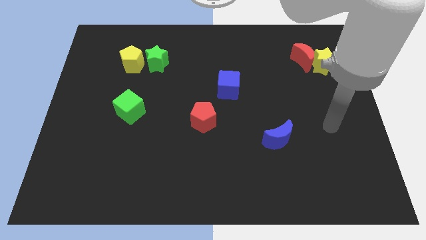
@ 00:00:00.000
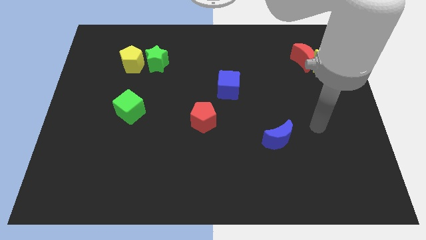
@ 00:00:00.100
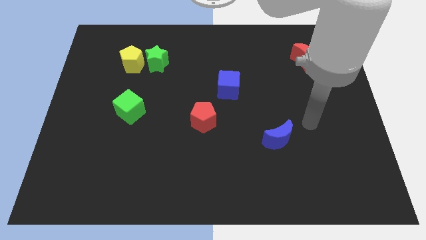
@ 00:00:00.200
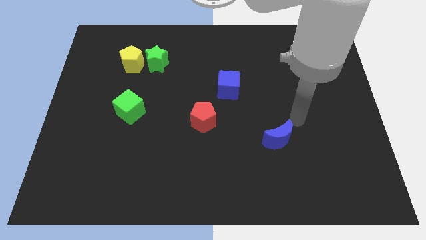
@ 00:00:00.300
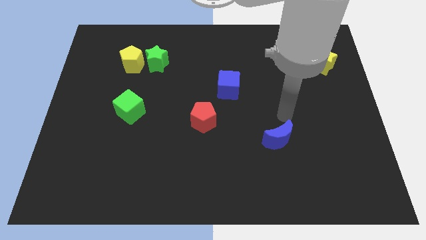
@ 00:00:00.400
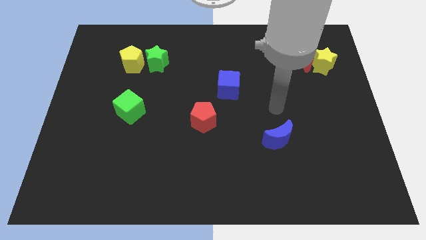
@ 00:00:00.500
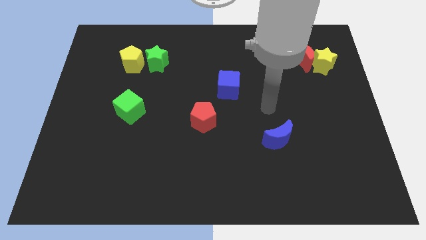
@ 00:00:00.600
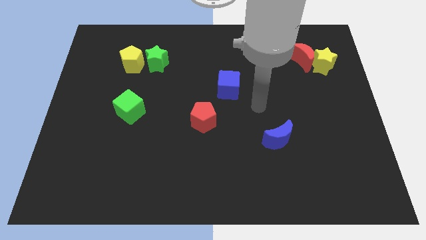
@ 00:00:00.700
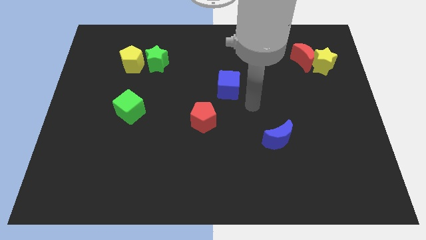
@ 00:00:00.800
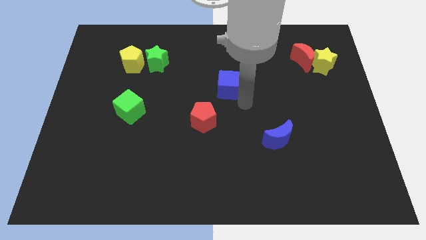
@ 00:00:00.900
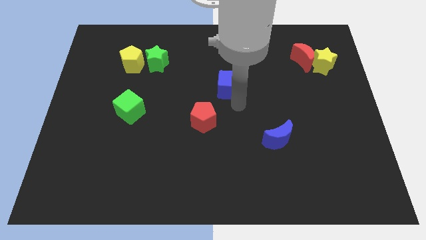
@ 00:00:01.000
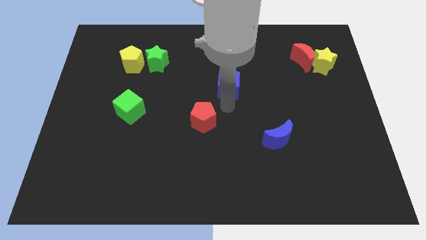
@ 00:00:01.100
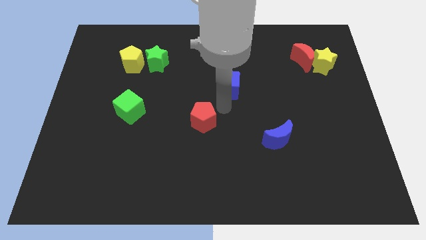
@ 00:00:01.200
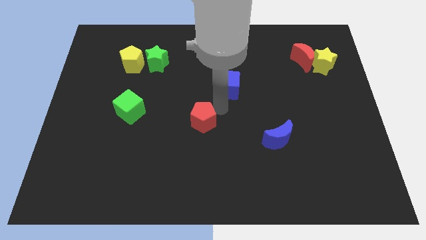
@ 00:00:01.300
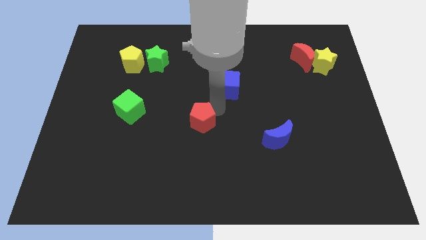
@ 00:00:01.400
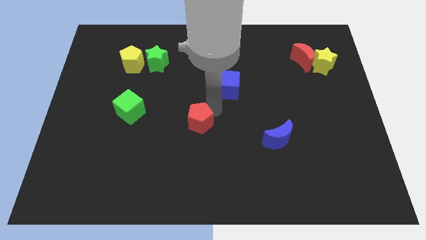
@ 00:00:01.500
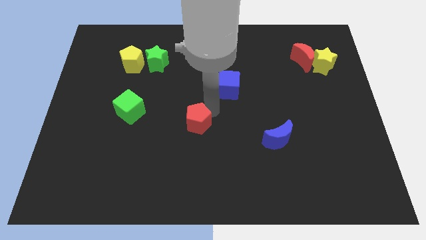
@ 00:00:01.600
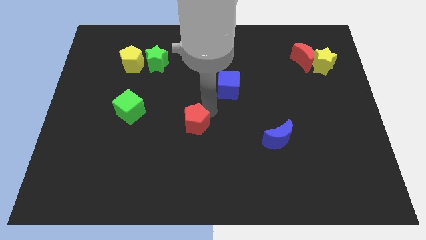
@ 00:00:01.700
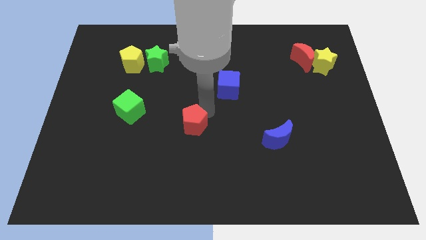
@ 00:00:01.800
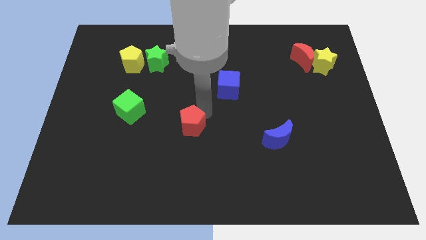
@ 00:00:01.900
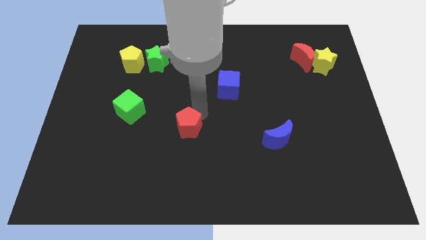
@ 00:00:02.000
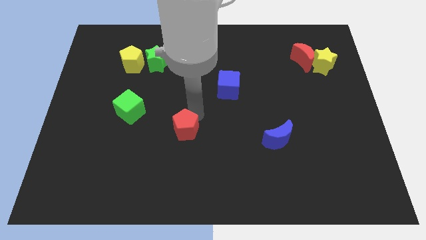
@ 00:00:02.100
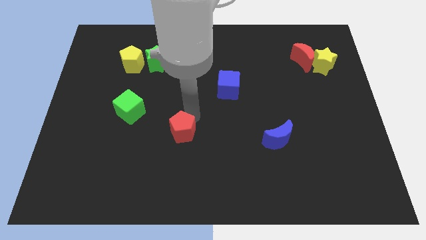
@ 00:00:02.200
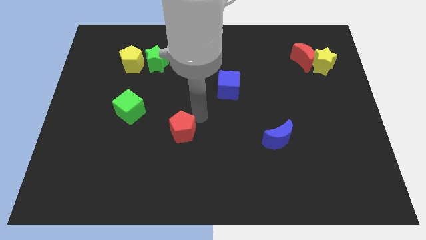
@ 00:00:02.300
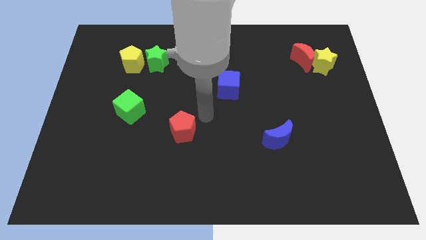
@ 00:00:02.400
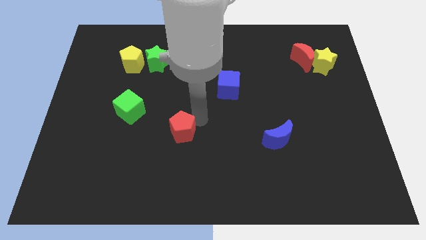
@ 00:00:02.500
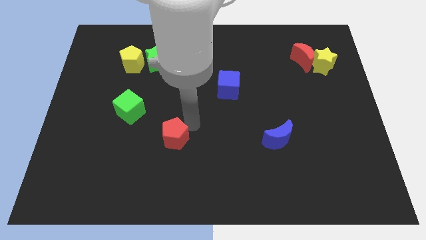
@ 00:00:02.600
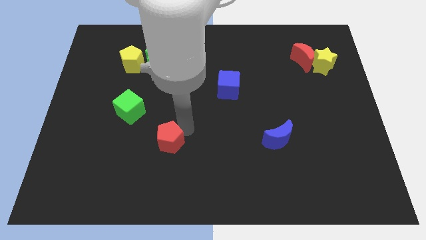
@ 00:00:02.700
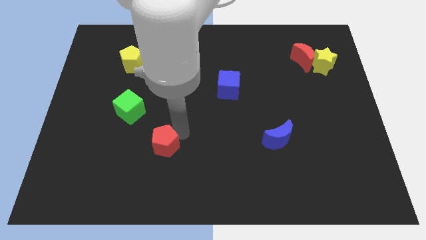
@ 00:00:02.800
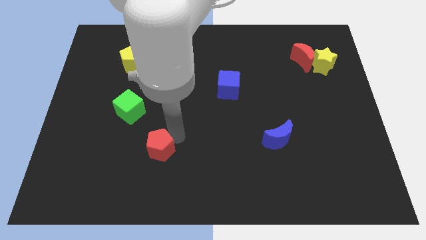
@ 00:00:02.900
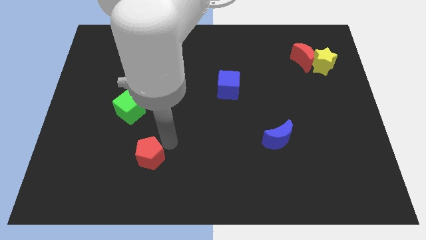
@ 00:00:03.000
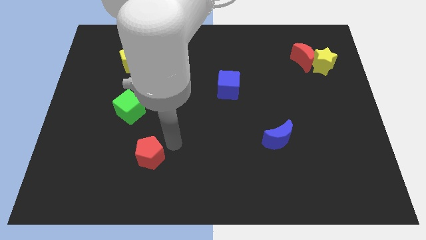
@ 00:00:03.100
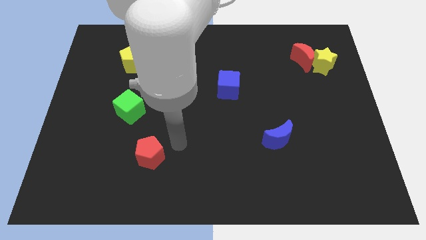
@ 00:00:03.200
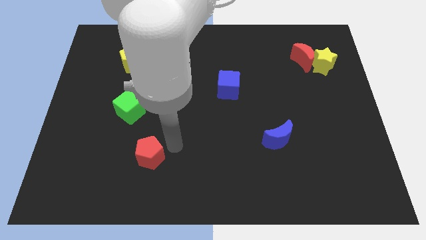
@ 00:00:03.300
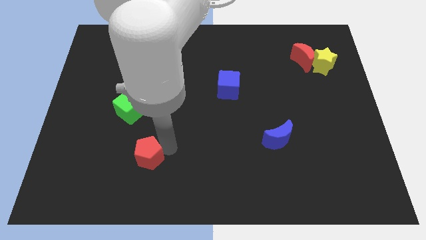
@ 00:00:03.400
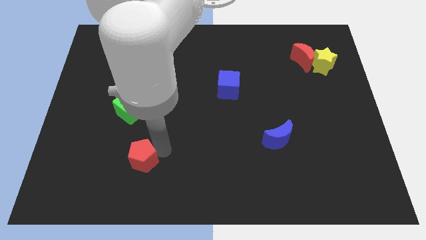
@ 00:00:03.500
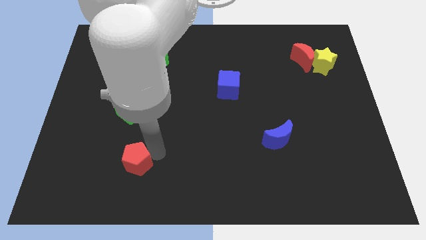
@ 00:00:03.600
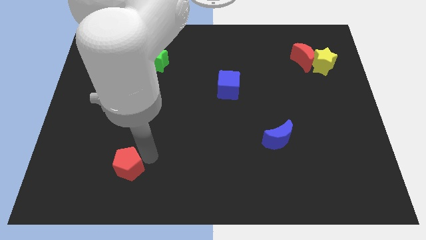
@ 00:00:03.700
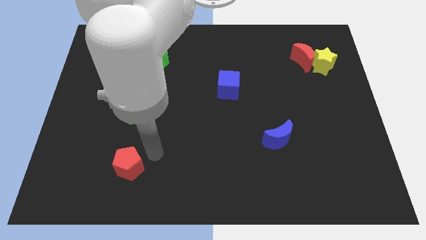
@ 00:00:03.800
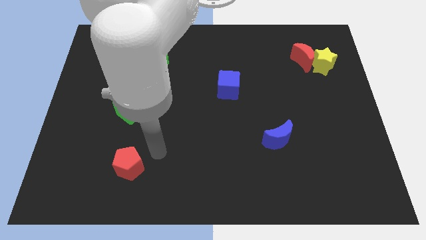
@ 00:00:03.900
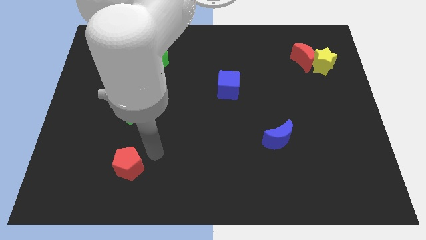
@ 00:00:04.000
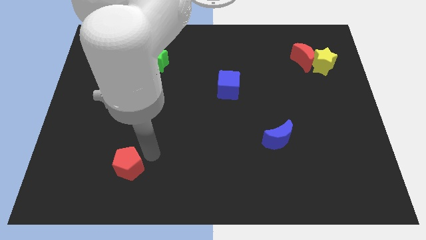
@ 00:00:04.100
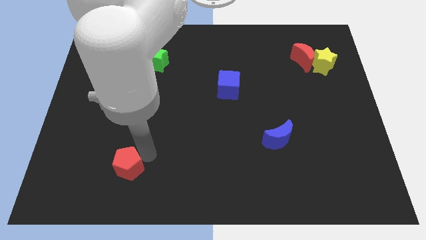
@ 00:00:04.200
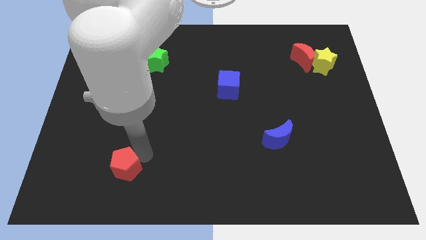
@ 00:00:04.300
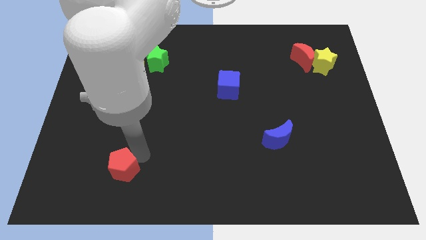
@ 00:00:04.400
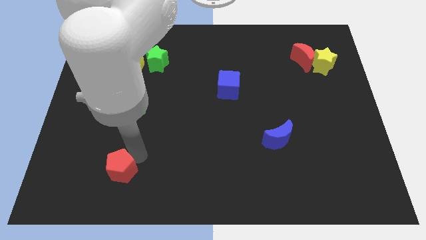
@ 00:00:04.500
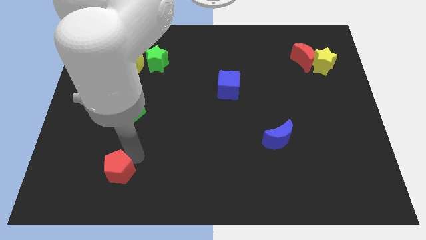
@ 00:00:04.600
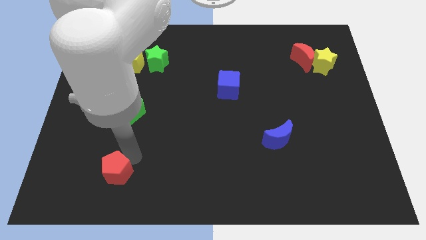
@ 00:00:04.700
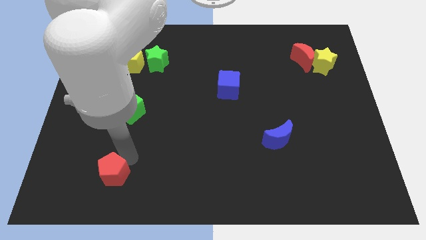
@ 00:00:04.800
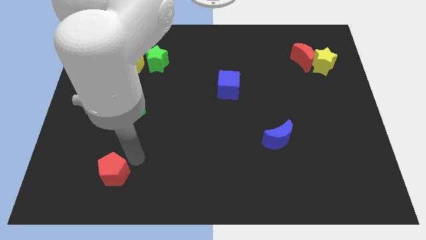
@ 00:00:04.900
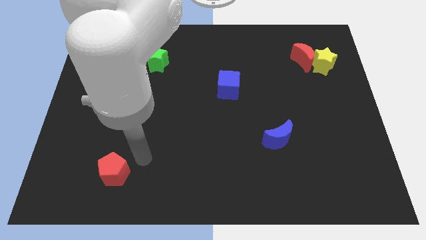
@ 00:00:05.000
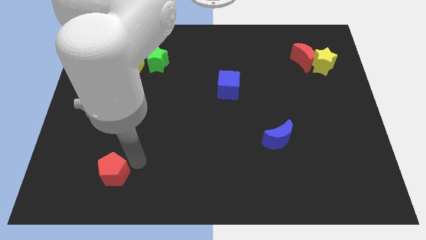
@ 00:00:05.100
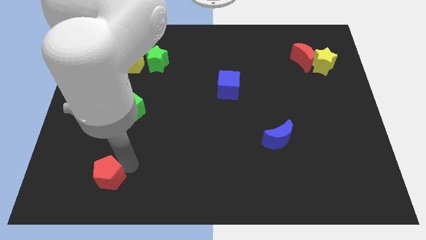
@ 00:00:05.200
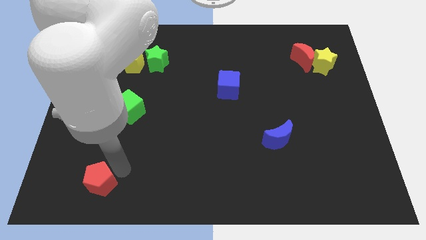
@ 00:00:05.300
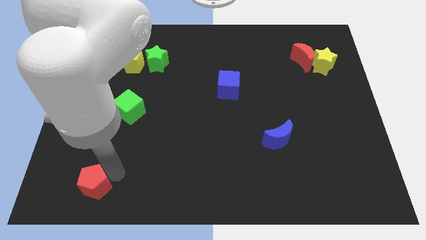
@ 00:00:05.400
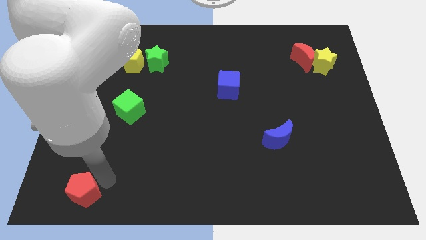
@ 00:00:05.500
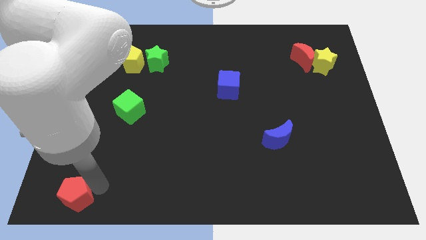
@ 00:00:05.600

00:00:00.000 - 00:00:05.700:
put the red pentagon to the lower left corner
